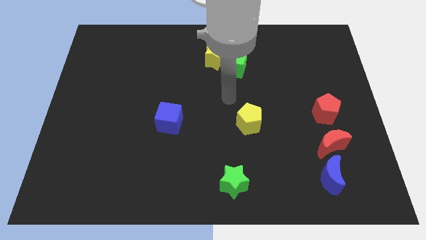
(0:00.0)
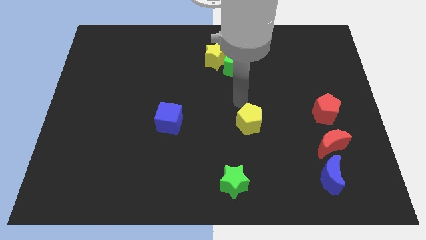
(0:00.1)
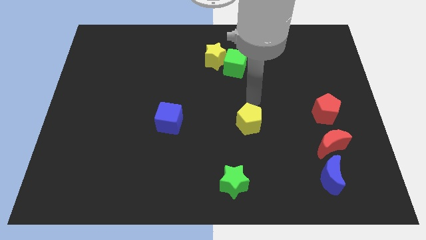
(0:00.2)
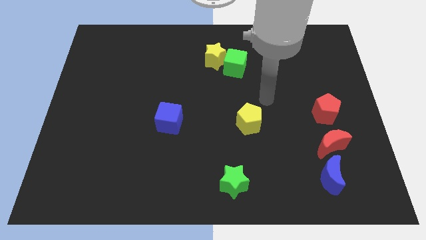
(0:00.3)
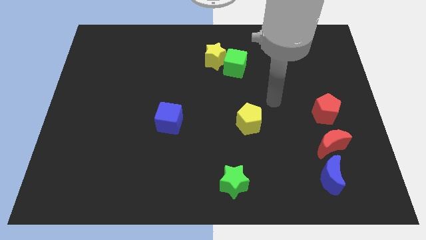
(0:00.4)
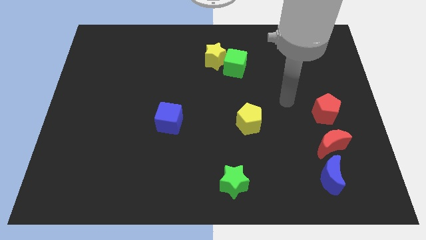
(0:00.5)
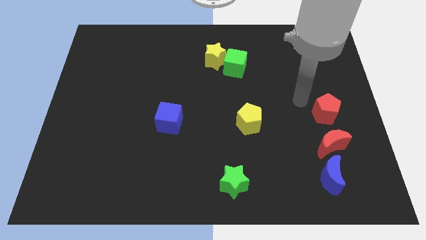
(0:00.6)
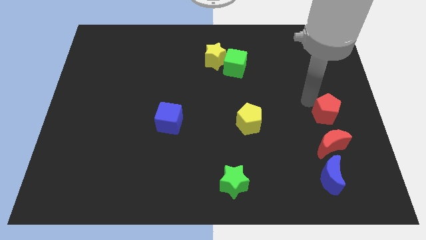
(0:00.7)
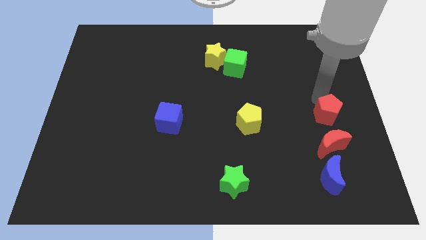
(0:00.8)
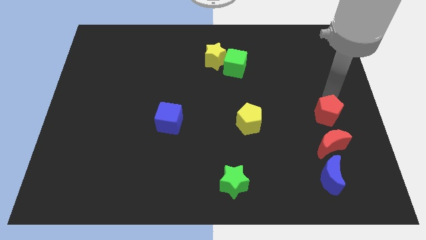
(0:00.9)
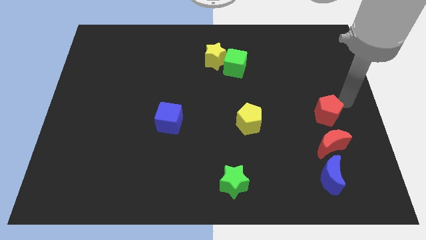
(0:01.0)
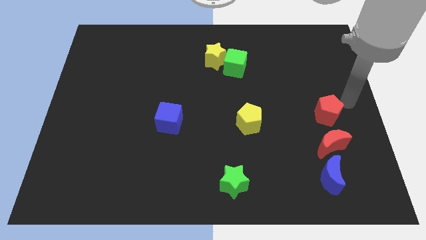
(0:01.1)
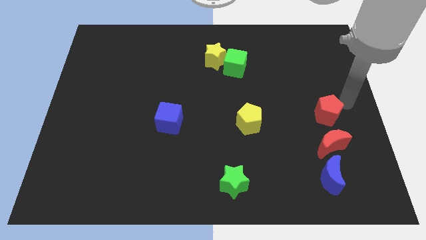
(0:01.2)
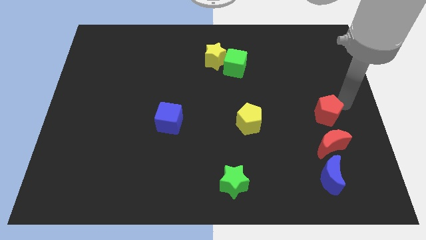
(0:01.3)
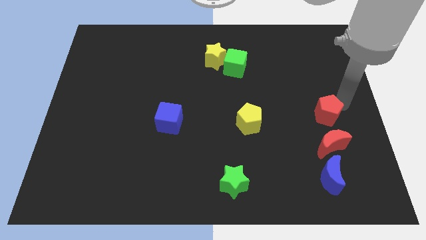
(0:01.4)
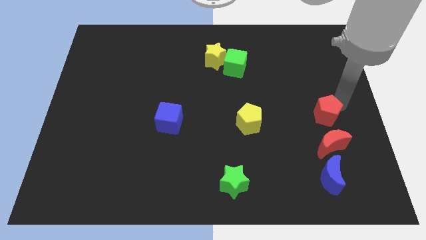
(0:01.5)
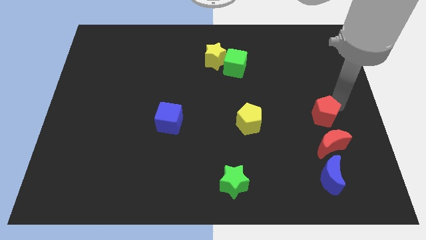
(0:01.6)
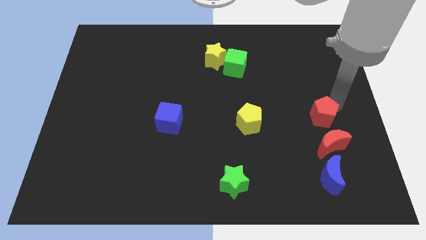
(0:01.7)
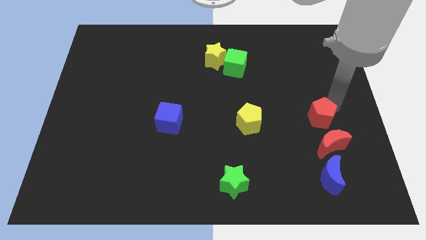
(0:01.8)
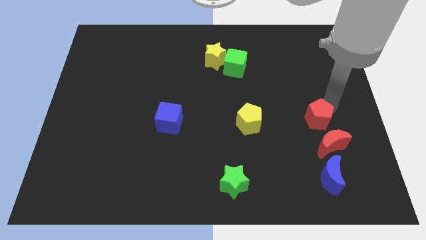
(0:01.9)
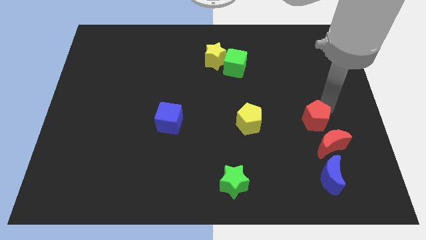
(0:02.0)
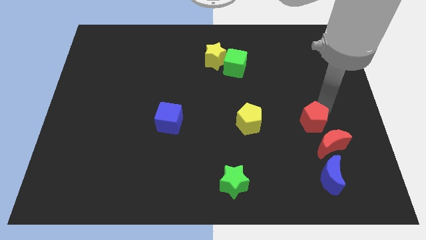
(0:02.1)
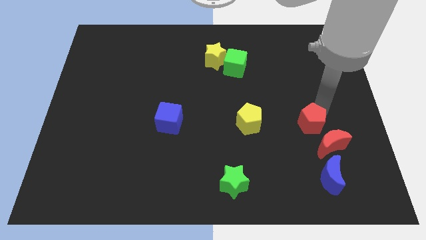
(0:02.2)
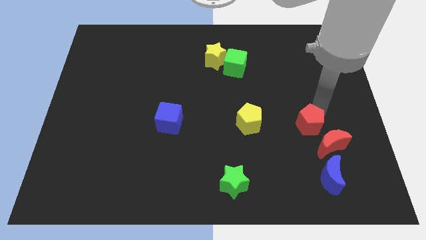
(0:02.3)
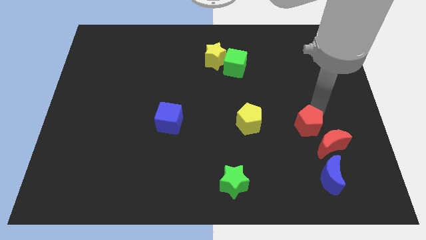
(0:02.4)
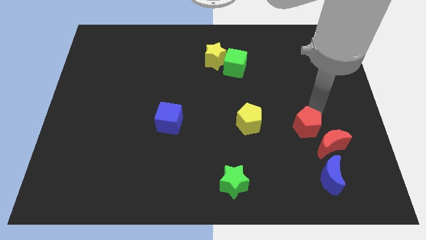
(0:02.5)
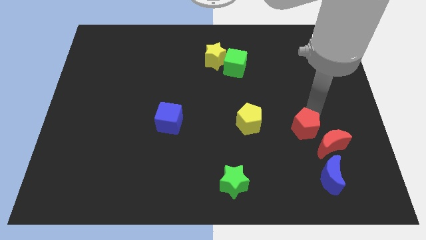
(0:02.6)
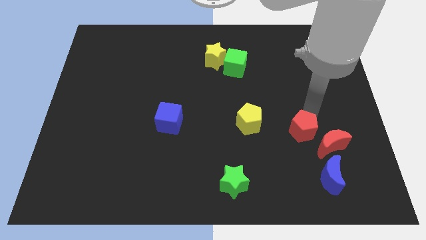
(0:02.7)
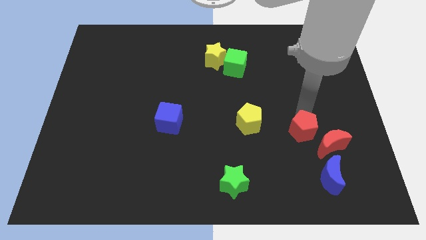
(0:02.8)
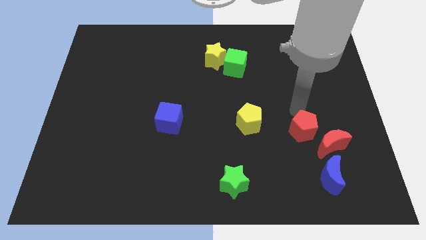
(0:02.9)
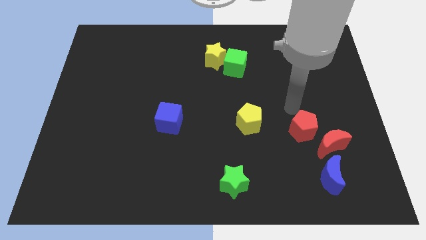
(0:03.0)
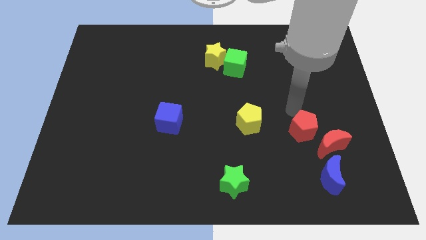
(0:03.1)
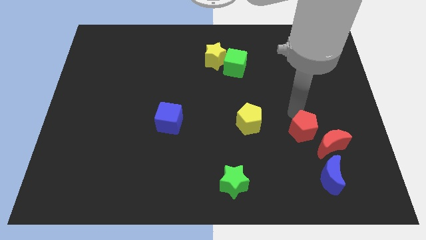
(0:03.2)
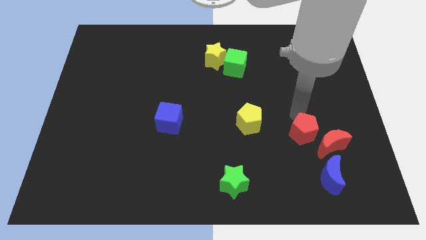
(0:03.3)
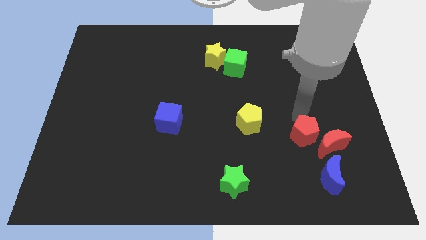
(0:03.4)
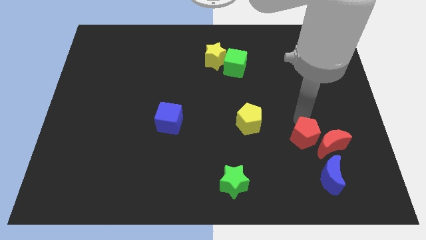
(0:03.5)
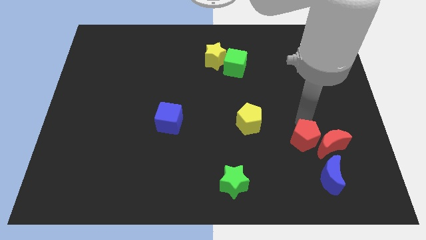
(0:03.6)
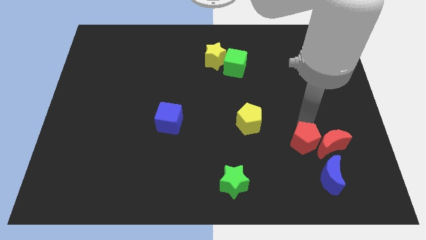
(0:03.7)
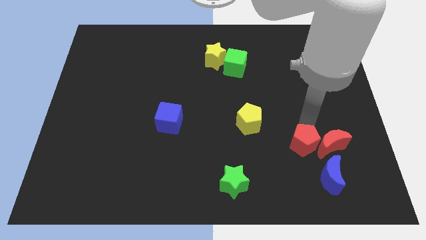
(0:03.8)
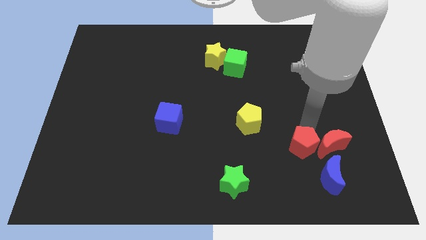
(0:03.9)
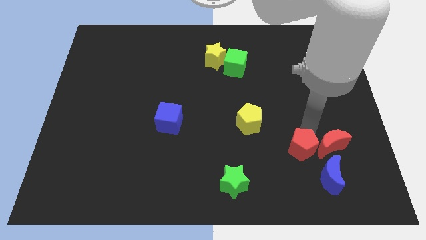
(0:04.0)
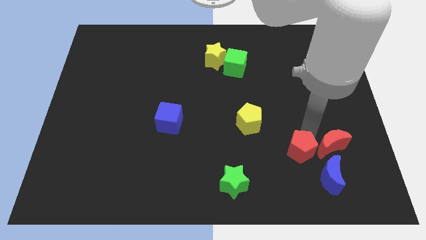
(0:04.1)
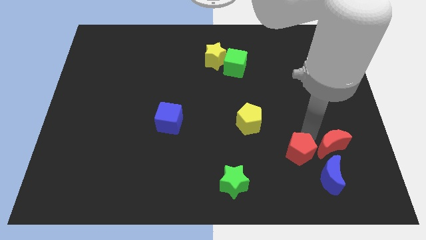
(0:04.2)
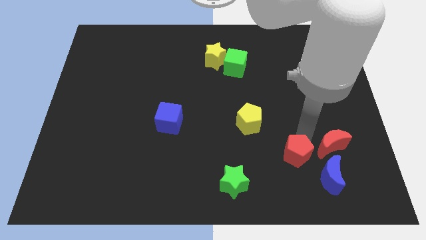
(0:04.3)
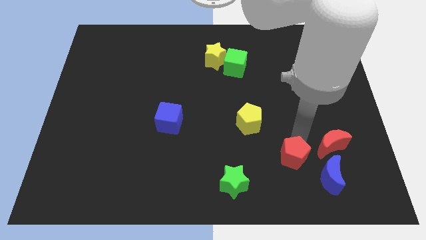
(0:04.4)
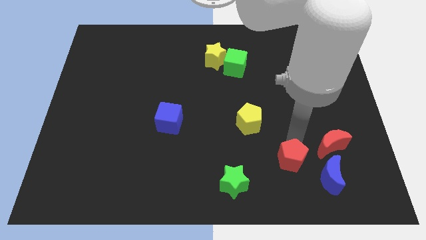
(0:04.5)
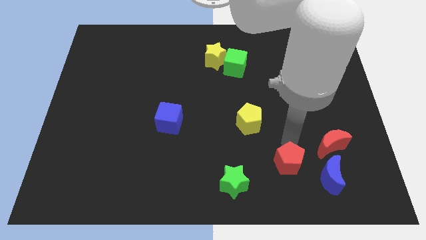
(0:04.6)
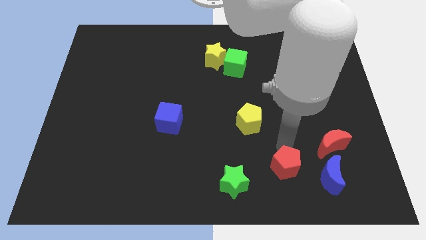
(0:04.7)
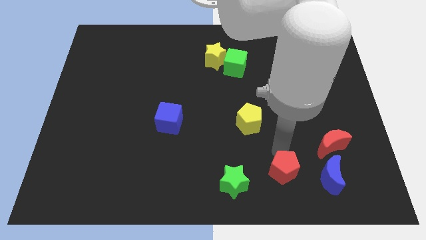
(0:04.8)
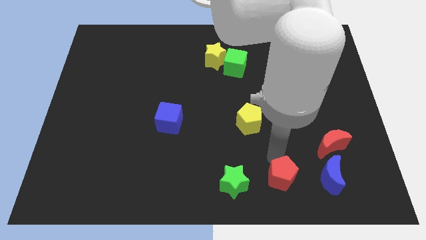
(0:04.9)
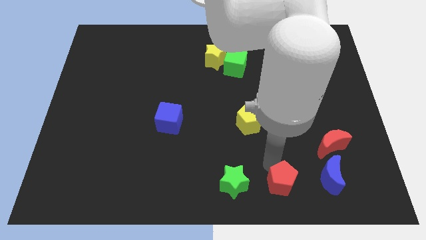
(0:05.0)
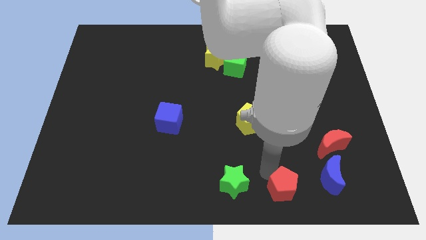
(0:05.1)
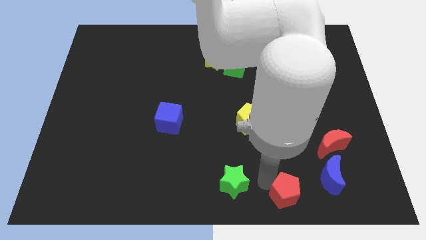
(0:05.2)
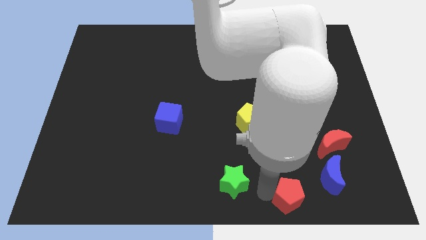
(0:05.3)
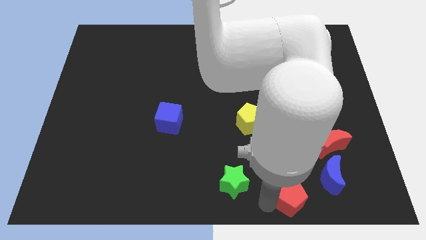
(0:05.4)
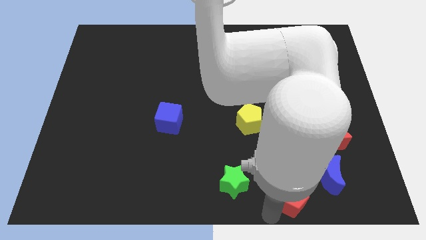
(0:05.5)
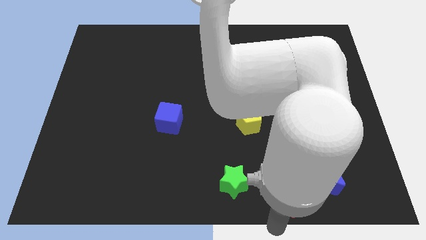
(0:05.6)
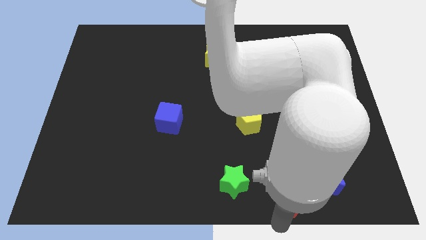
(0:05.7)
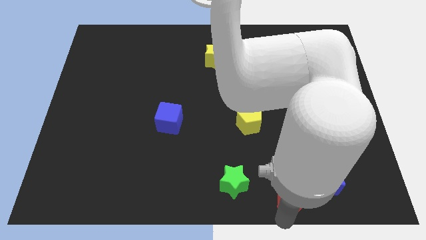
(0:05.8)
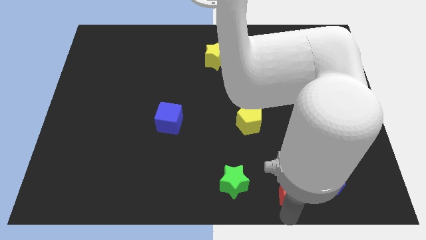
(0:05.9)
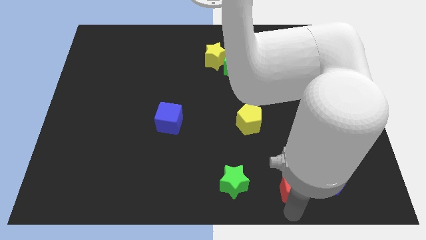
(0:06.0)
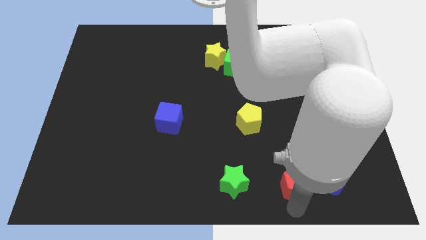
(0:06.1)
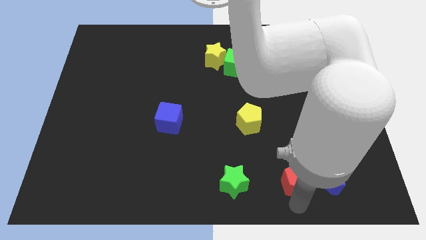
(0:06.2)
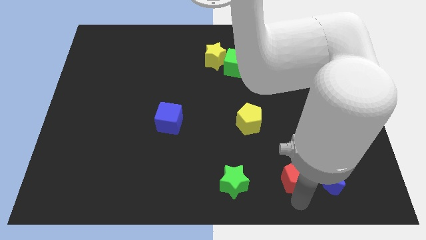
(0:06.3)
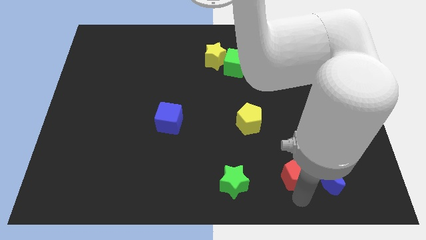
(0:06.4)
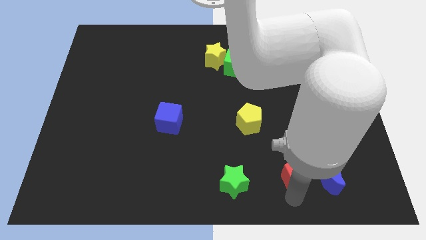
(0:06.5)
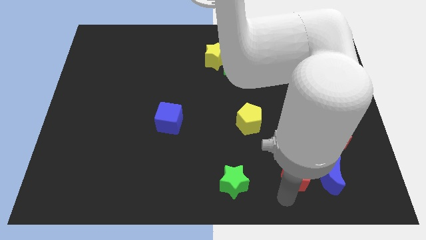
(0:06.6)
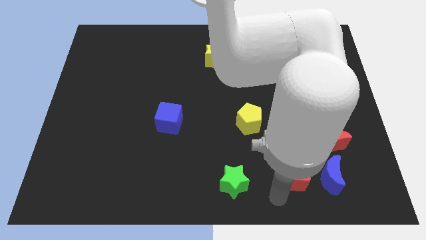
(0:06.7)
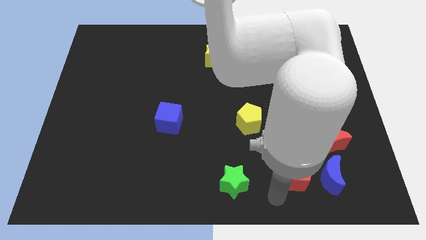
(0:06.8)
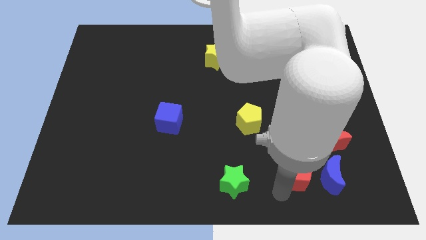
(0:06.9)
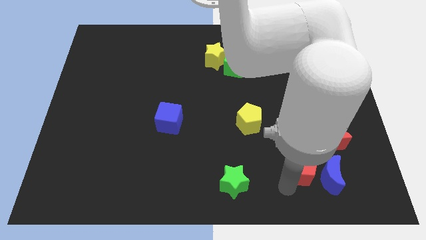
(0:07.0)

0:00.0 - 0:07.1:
push the red pentagon to the blue moon
